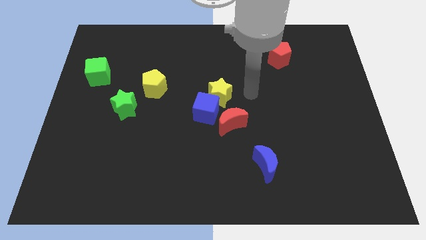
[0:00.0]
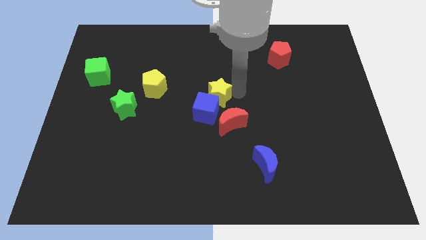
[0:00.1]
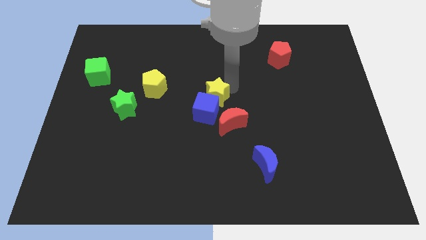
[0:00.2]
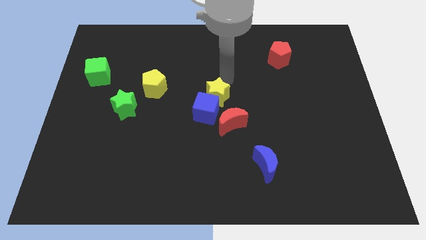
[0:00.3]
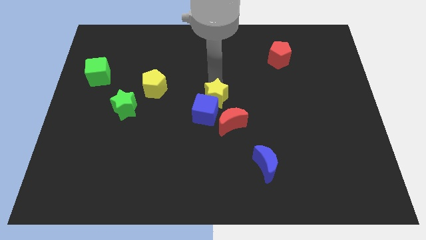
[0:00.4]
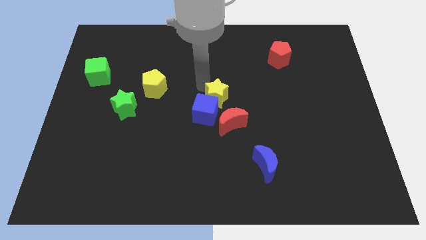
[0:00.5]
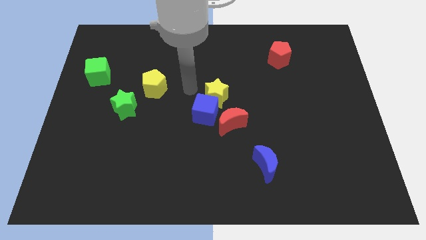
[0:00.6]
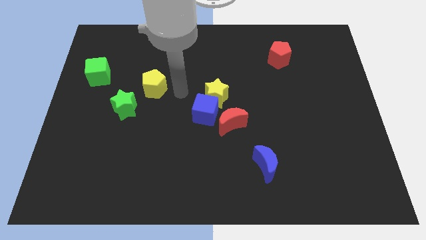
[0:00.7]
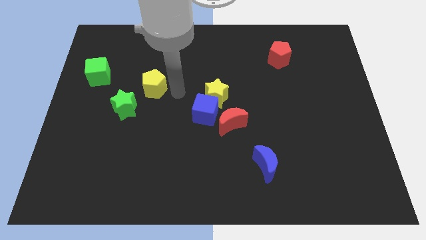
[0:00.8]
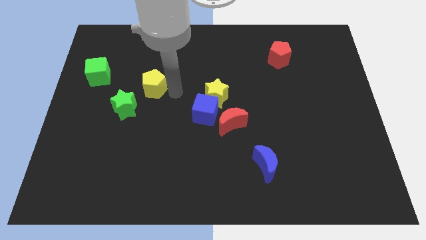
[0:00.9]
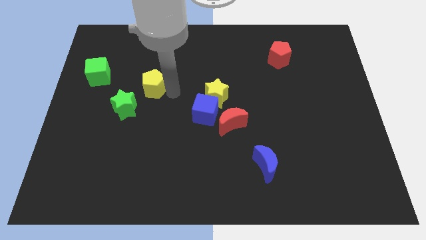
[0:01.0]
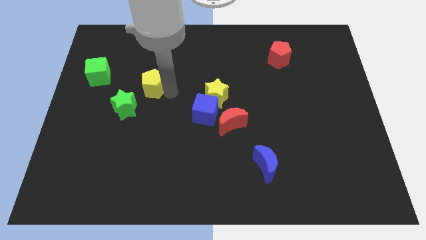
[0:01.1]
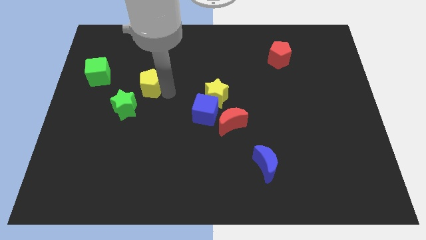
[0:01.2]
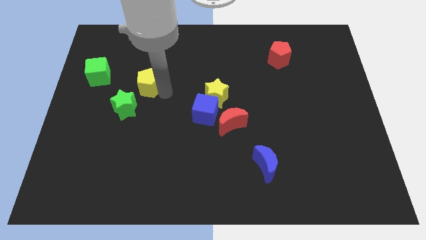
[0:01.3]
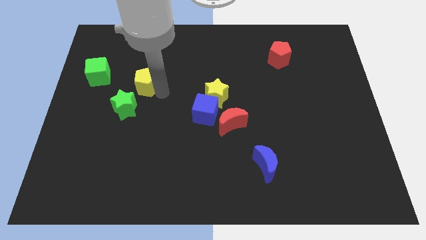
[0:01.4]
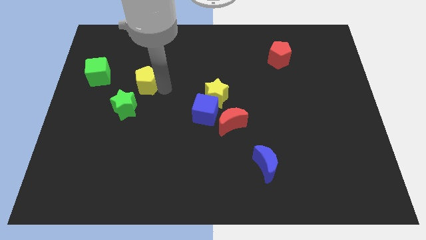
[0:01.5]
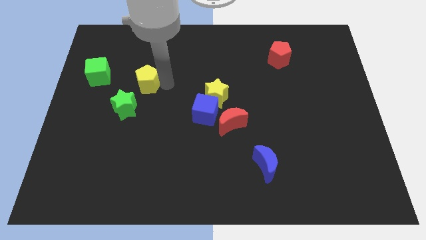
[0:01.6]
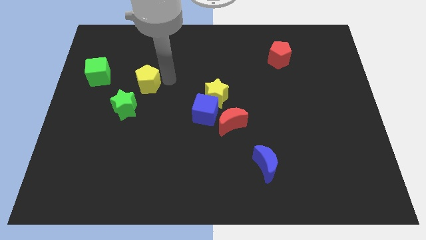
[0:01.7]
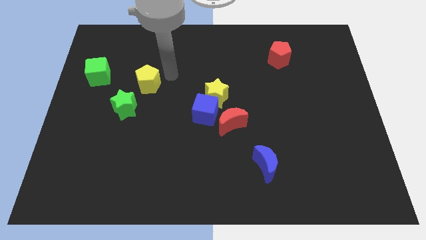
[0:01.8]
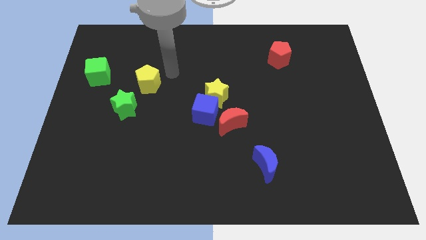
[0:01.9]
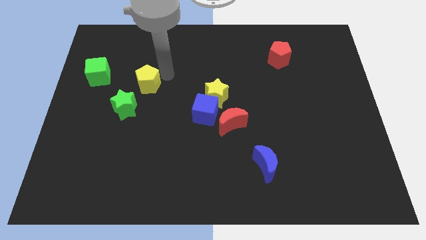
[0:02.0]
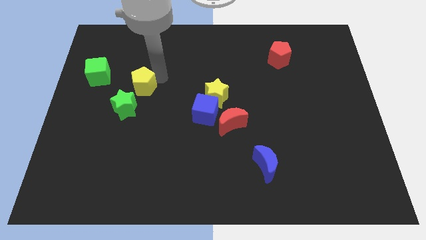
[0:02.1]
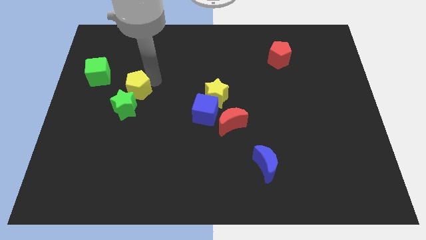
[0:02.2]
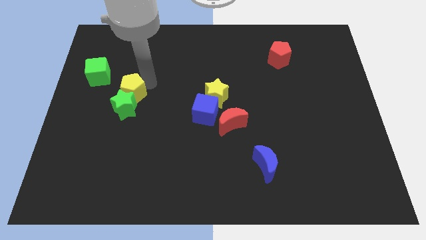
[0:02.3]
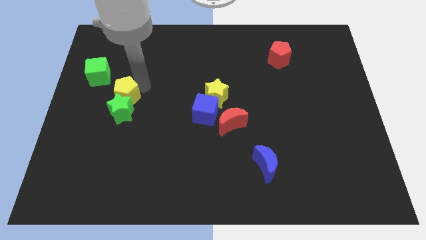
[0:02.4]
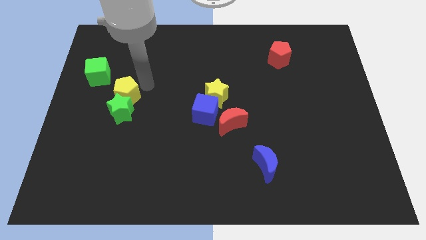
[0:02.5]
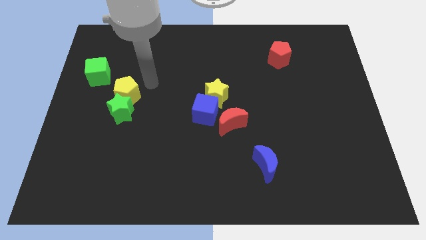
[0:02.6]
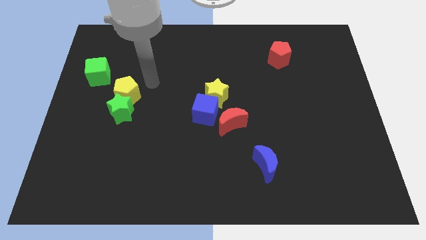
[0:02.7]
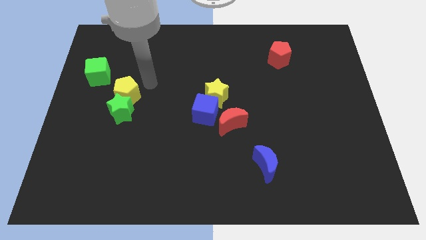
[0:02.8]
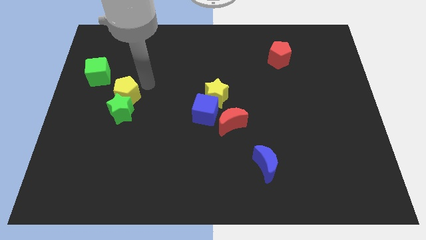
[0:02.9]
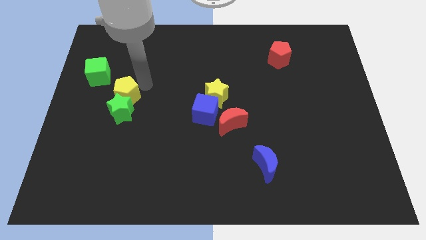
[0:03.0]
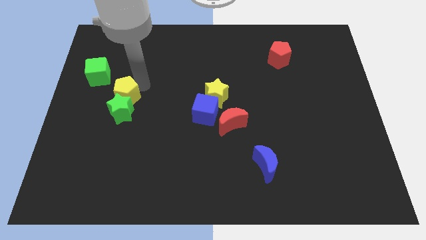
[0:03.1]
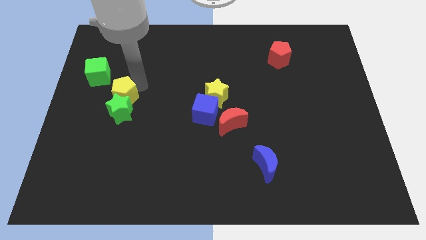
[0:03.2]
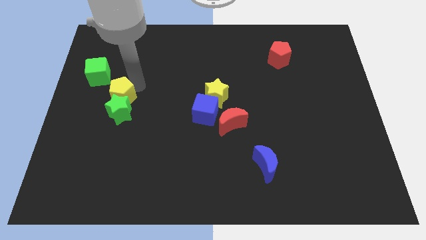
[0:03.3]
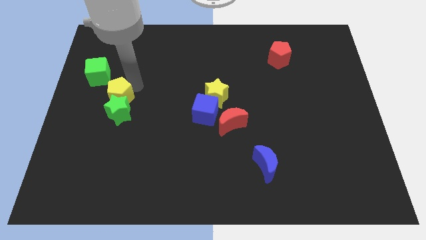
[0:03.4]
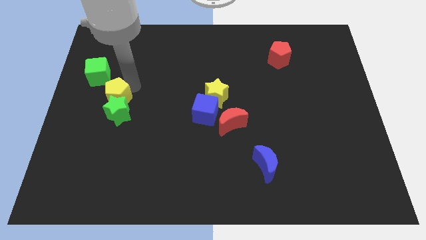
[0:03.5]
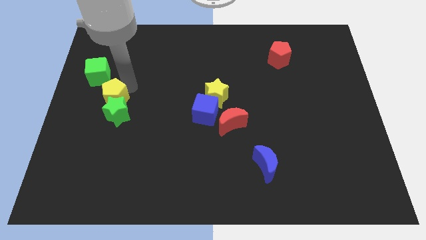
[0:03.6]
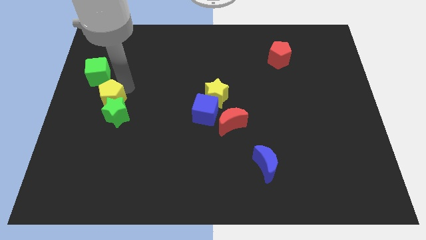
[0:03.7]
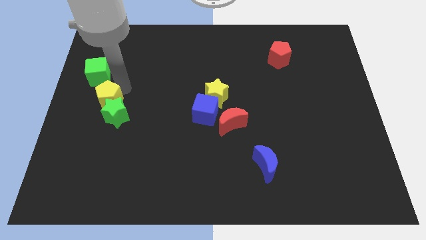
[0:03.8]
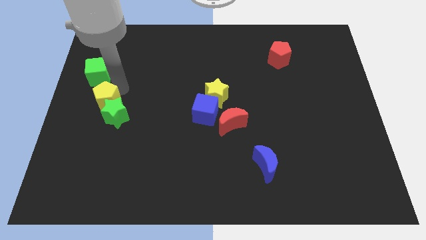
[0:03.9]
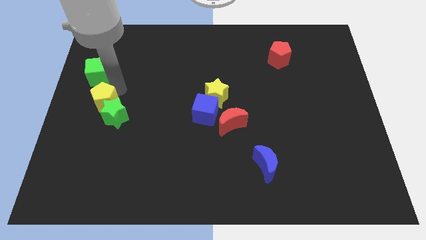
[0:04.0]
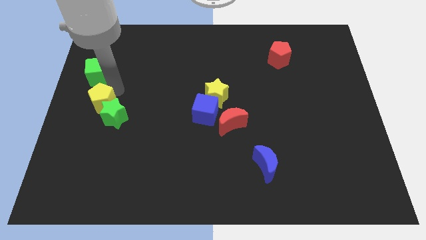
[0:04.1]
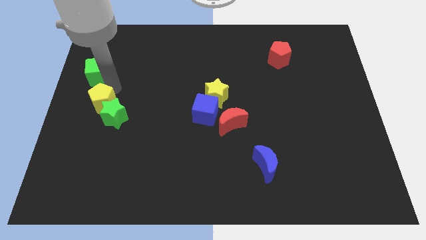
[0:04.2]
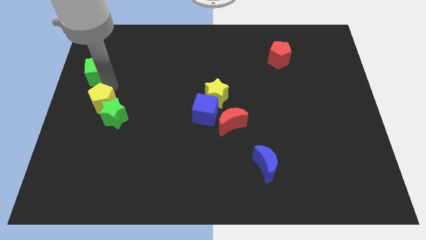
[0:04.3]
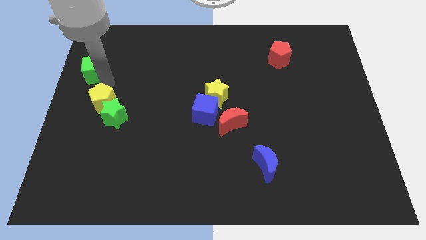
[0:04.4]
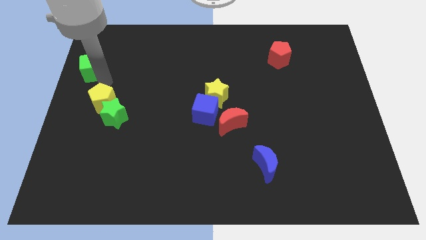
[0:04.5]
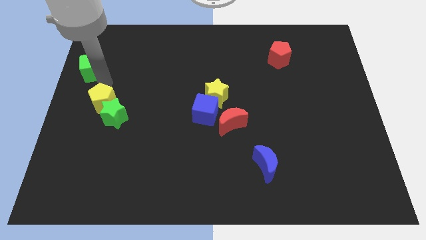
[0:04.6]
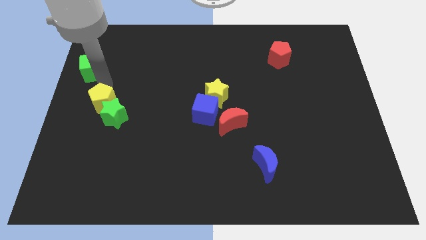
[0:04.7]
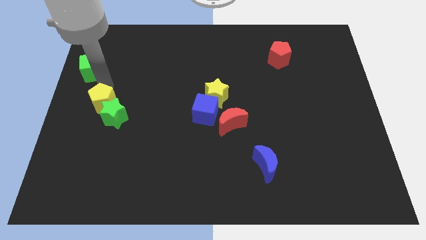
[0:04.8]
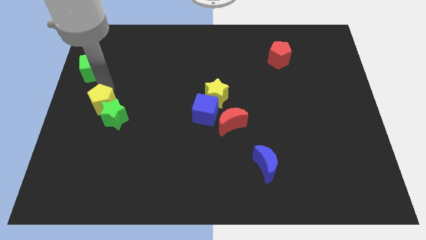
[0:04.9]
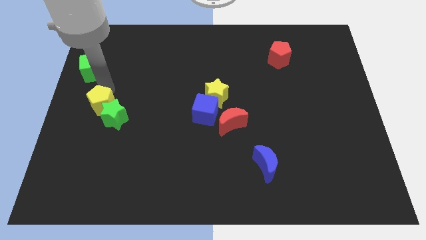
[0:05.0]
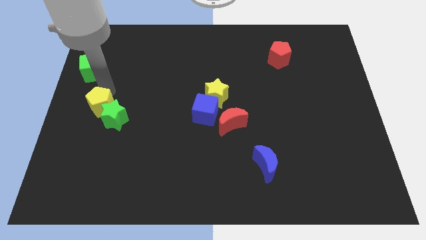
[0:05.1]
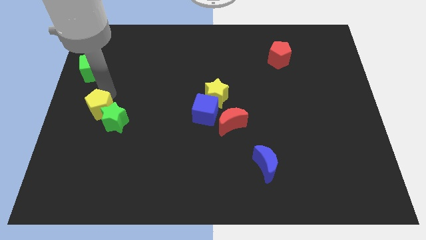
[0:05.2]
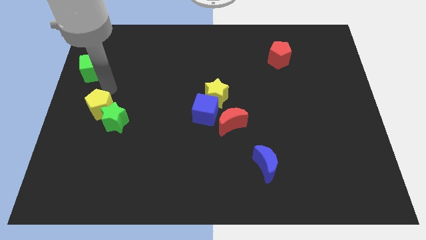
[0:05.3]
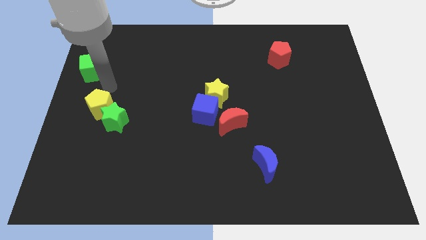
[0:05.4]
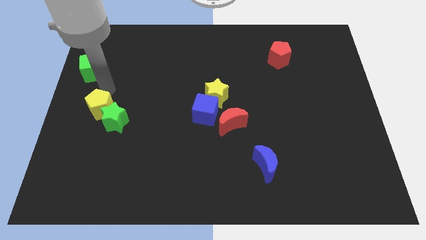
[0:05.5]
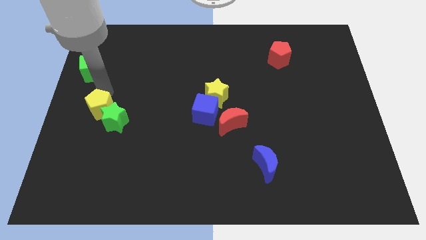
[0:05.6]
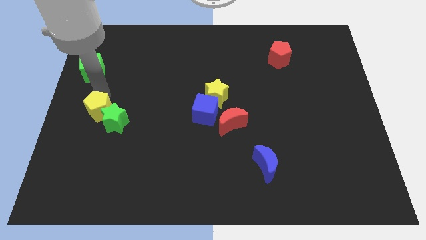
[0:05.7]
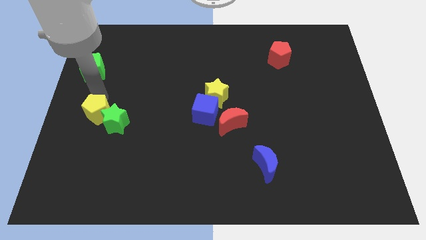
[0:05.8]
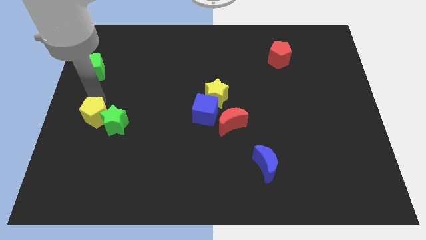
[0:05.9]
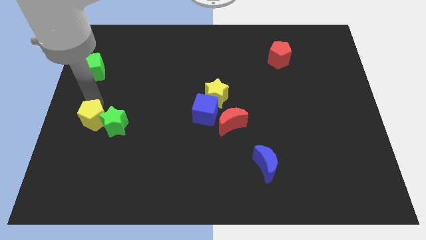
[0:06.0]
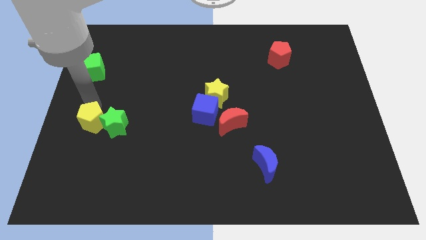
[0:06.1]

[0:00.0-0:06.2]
push the yellow pentagon diagonally down and to the left of the green star

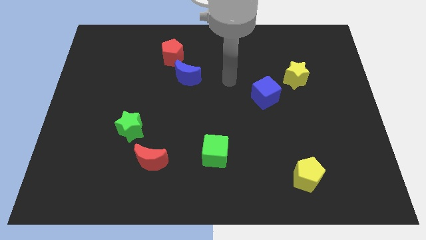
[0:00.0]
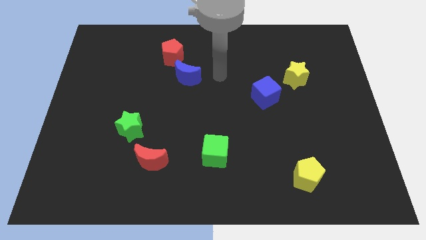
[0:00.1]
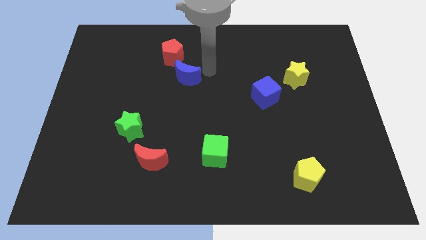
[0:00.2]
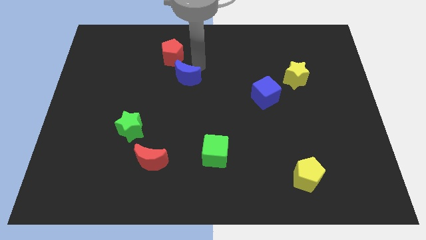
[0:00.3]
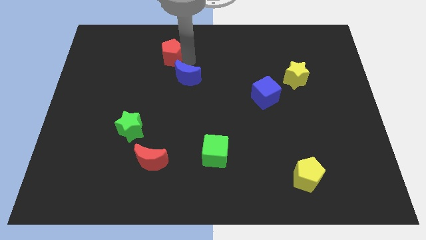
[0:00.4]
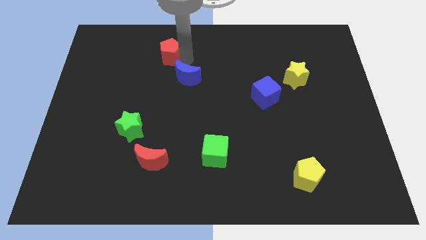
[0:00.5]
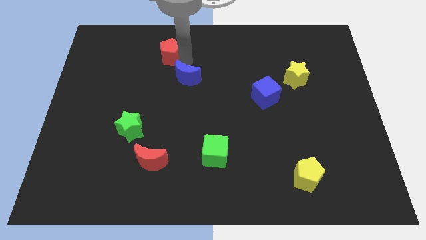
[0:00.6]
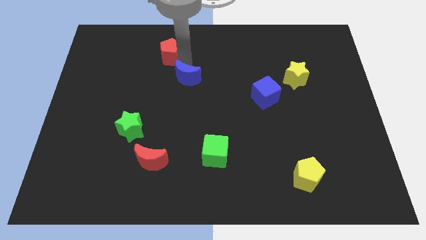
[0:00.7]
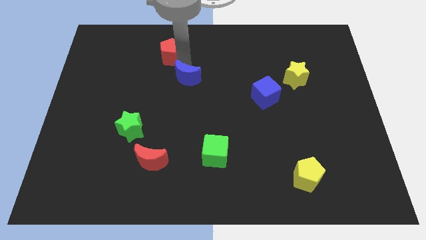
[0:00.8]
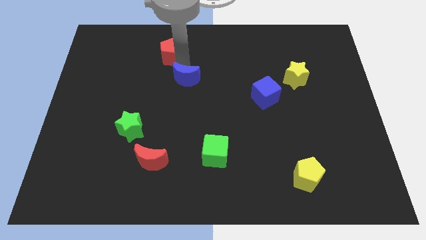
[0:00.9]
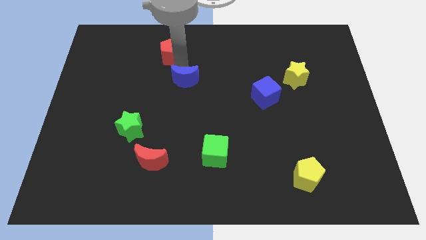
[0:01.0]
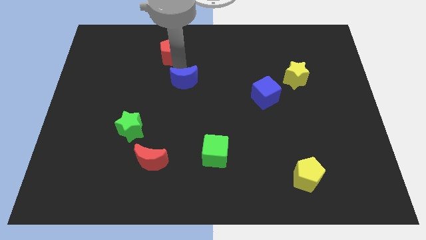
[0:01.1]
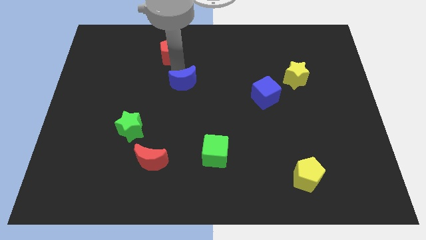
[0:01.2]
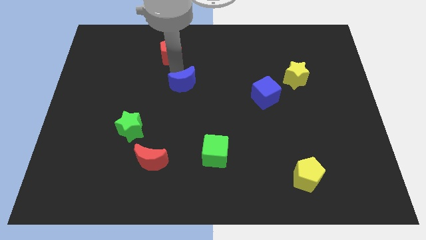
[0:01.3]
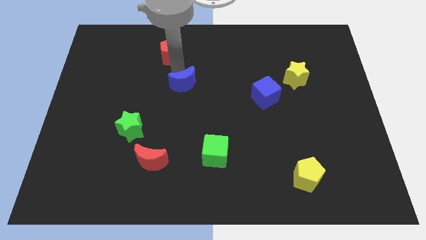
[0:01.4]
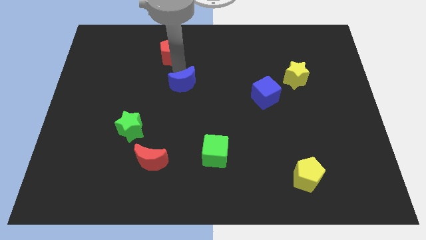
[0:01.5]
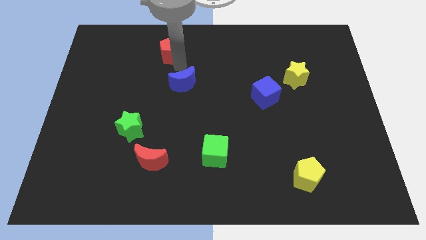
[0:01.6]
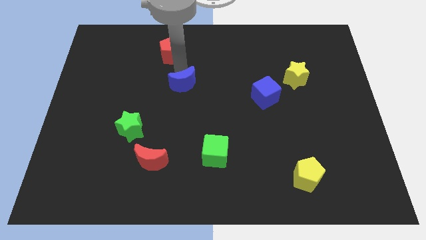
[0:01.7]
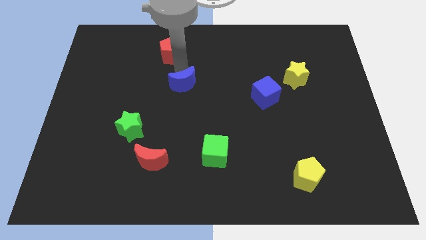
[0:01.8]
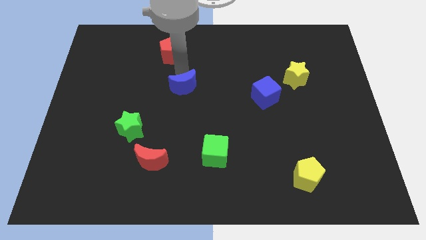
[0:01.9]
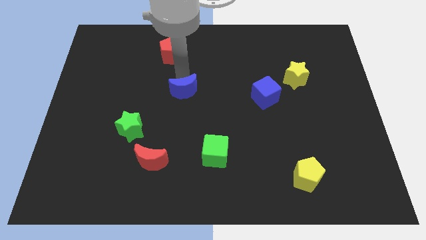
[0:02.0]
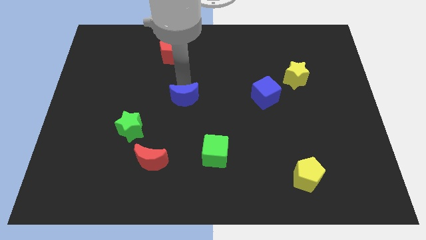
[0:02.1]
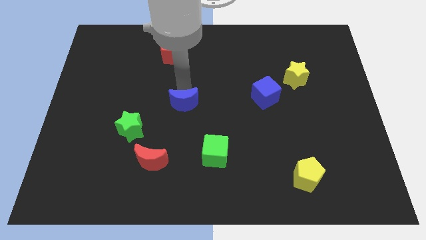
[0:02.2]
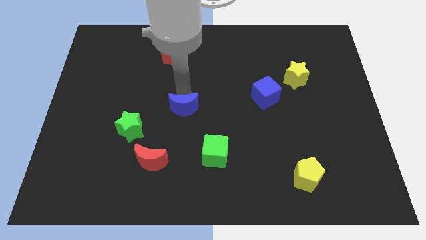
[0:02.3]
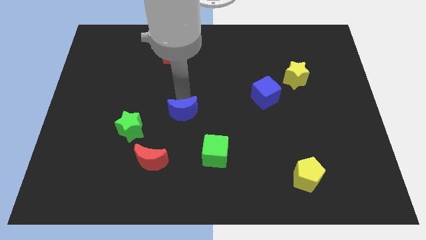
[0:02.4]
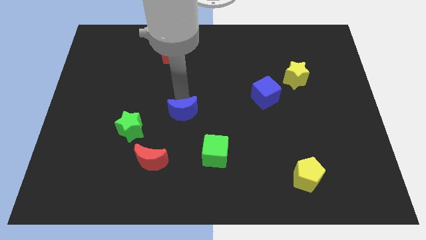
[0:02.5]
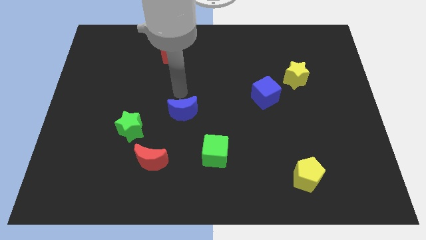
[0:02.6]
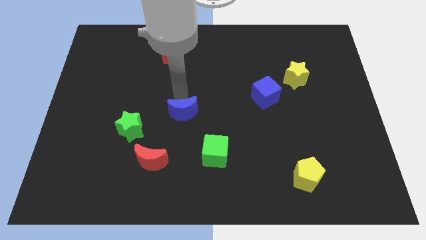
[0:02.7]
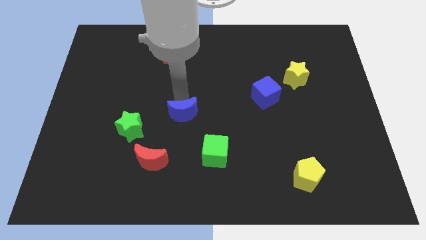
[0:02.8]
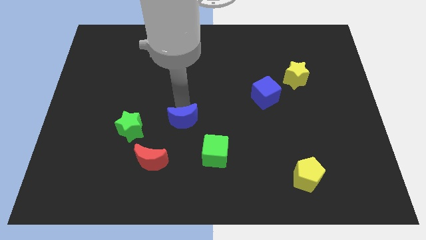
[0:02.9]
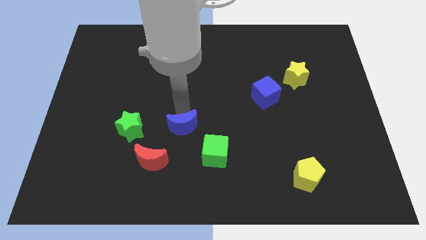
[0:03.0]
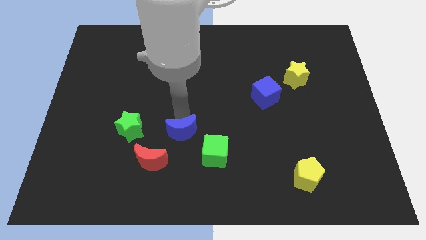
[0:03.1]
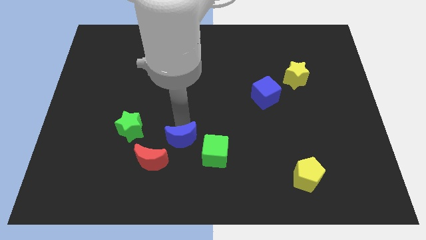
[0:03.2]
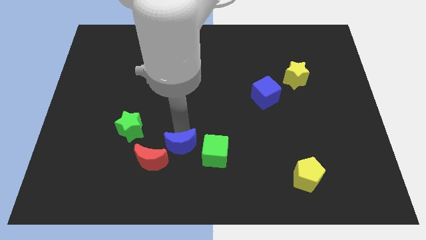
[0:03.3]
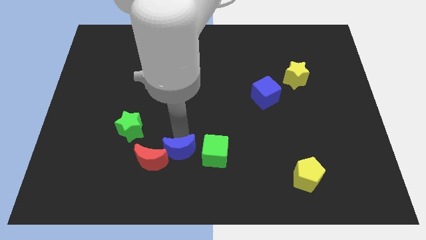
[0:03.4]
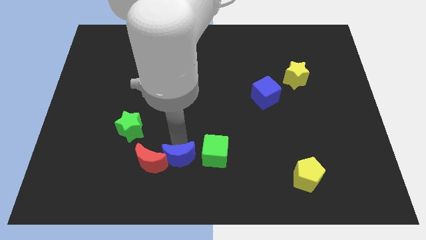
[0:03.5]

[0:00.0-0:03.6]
put the blue moon to the bottom left of the green cube
